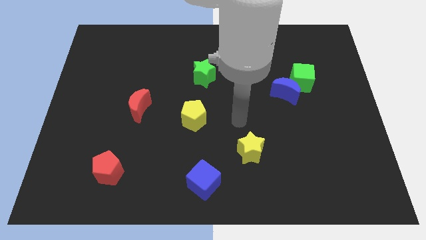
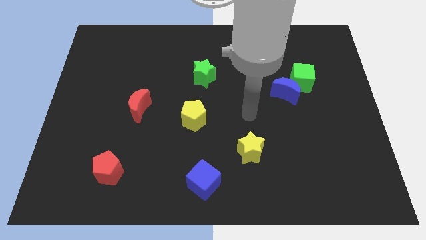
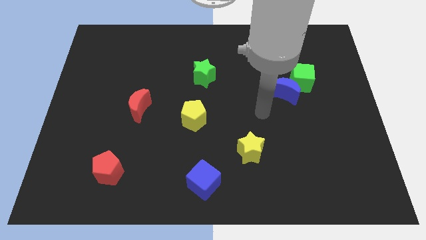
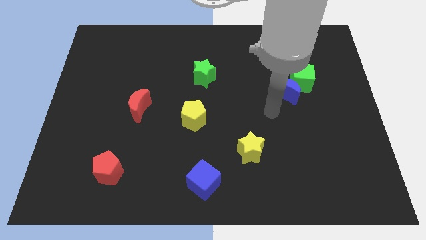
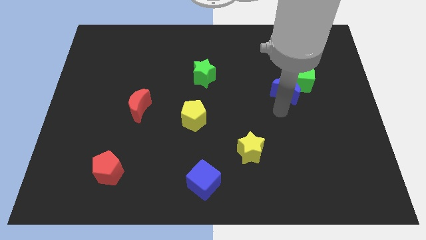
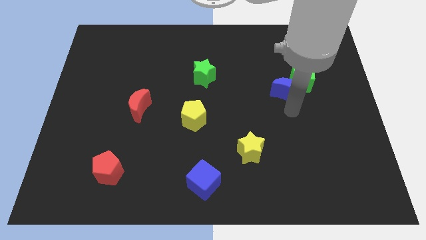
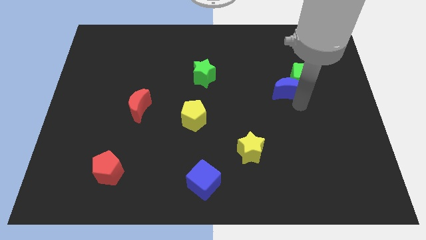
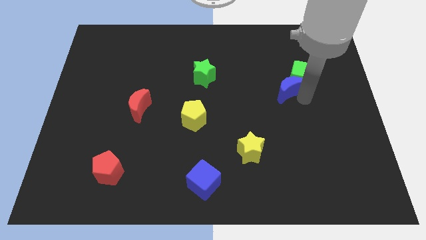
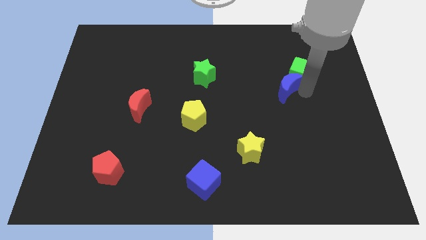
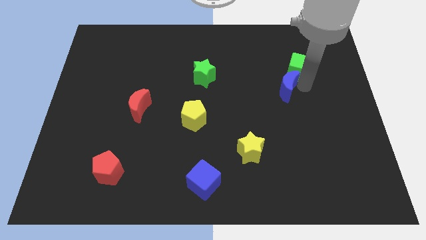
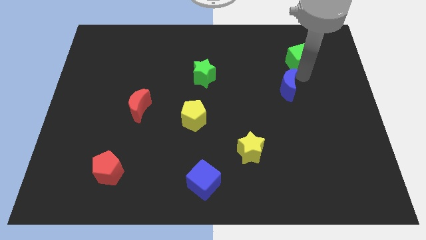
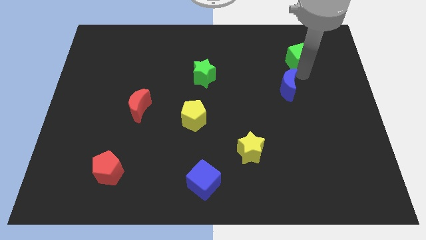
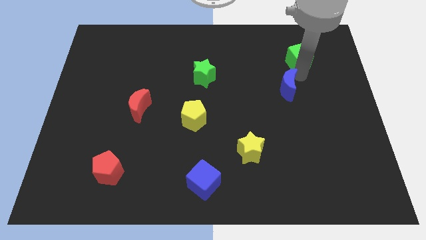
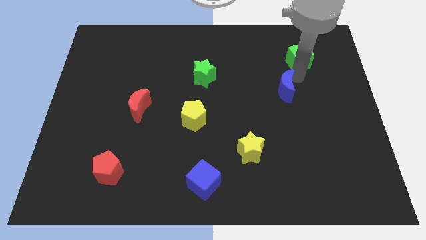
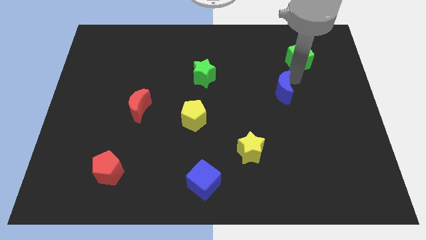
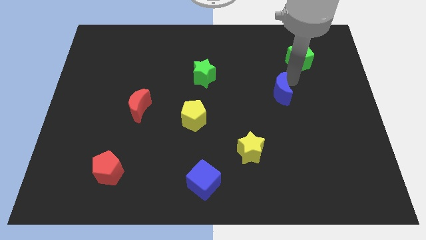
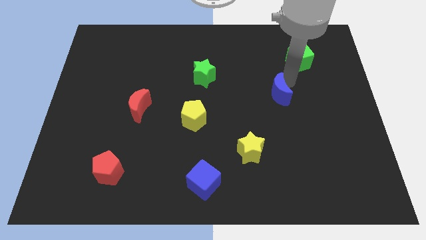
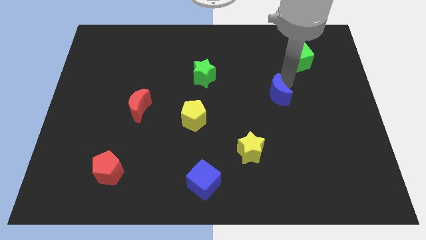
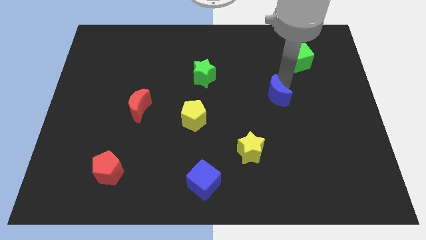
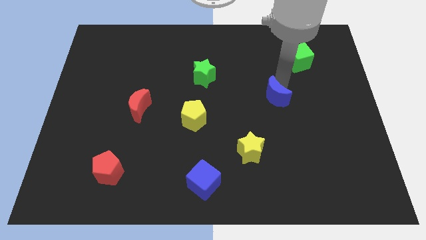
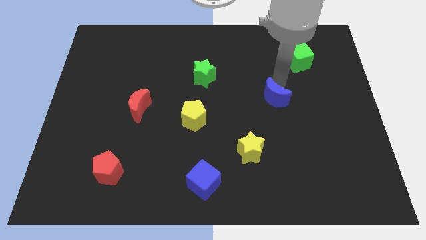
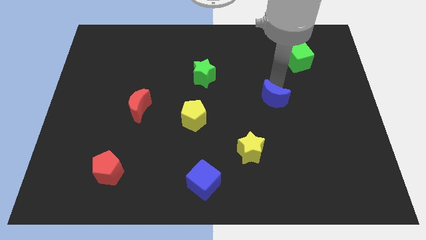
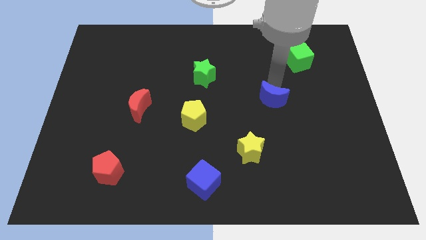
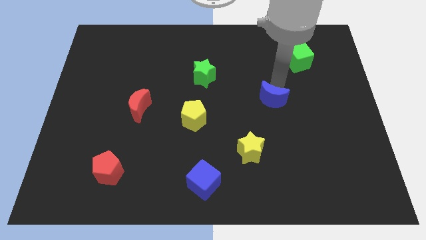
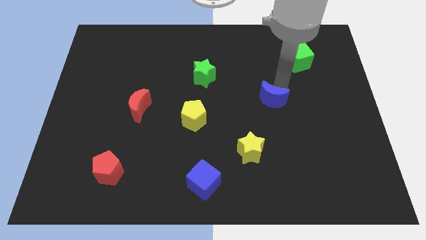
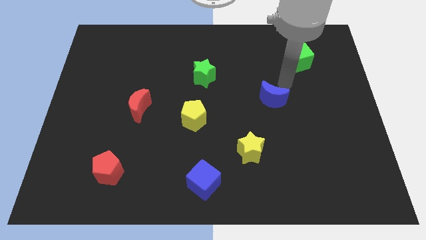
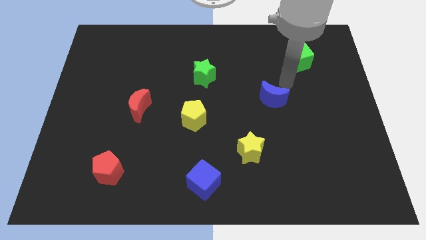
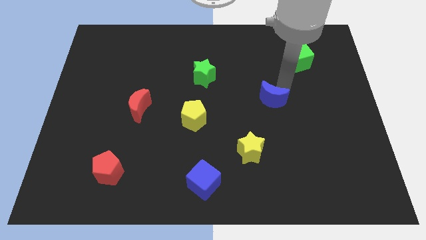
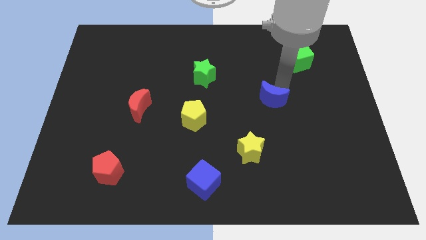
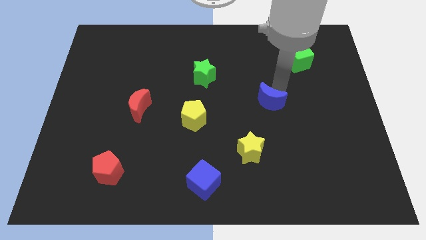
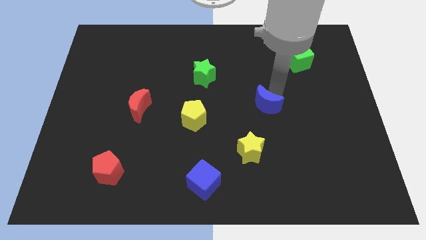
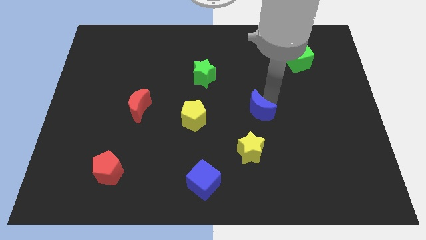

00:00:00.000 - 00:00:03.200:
slightly move the blue moon diagonally downwards and to the left

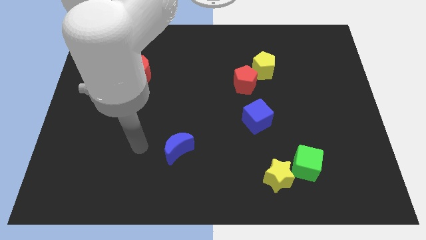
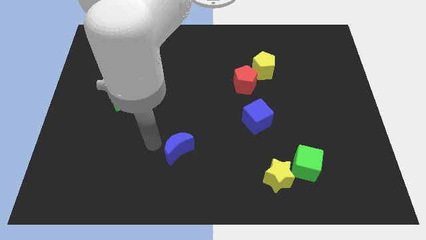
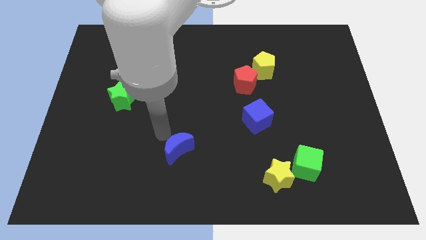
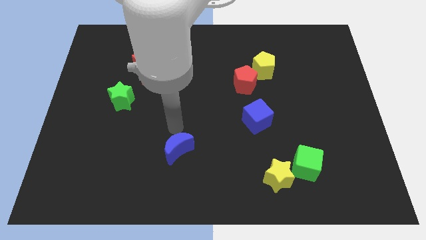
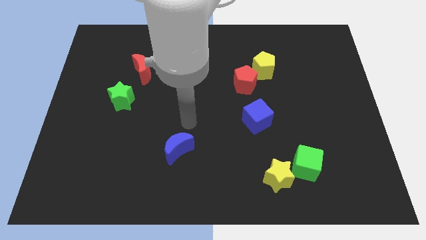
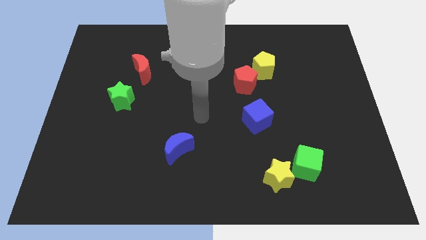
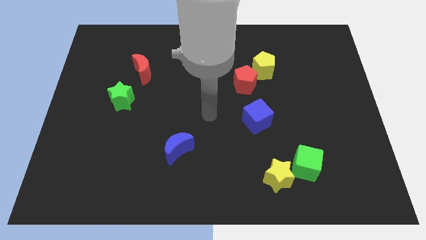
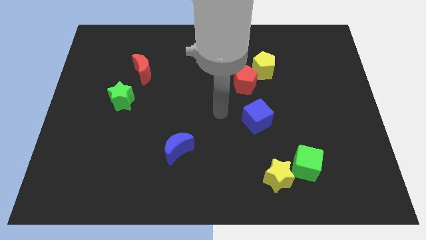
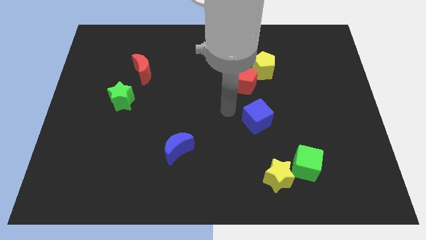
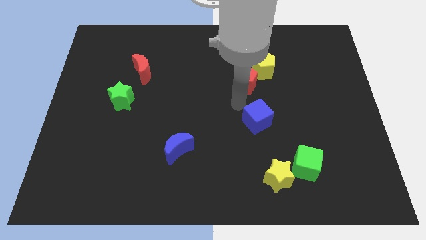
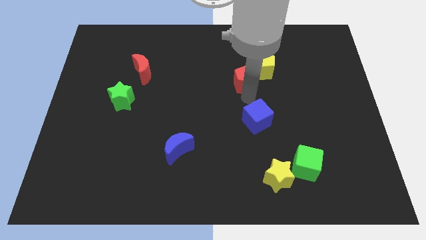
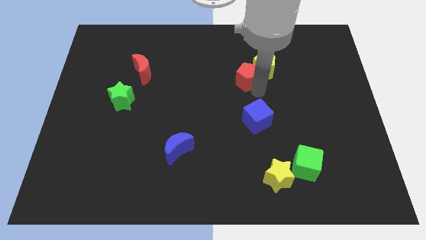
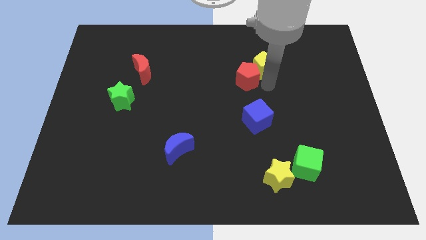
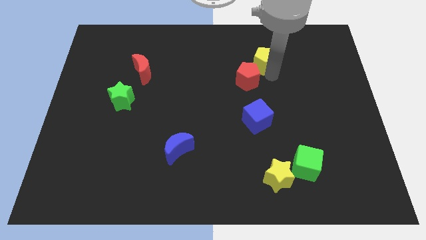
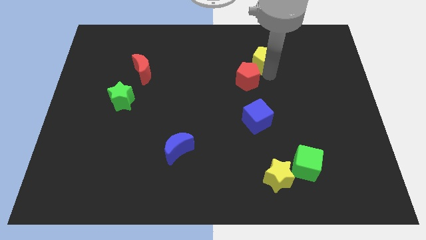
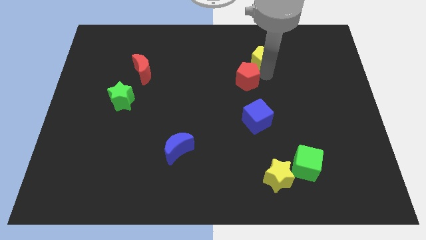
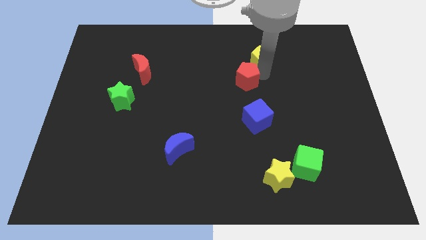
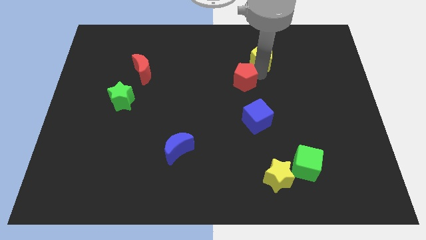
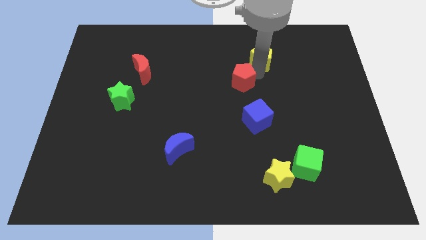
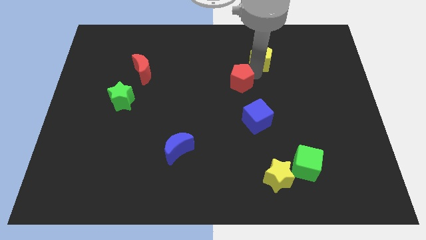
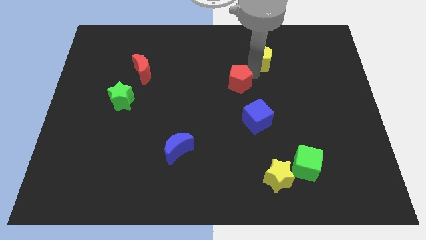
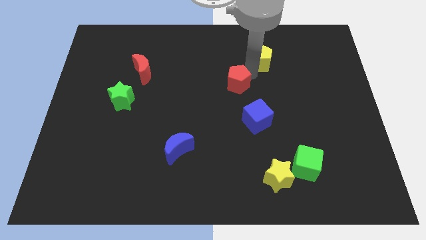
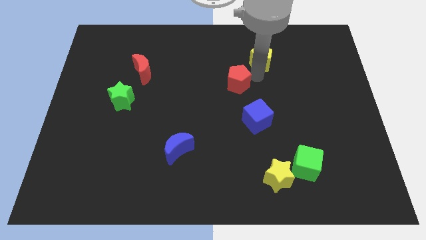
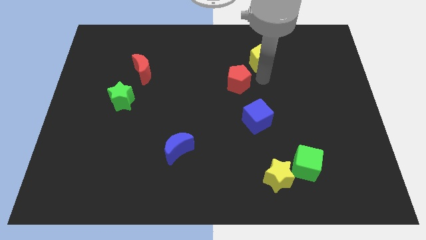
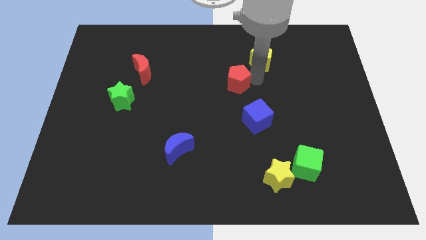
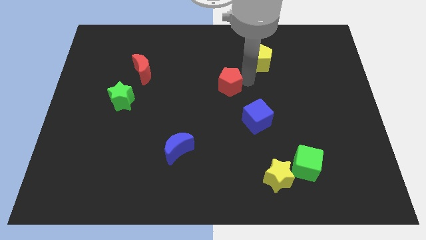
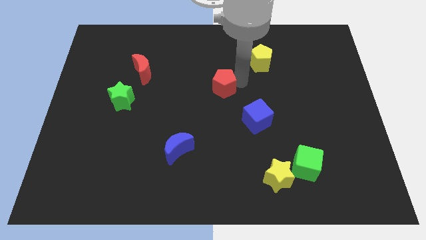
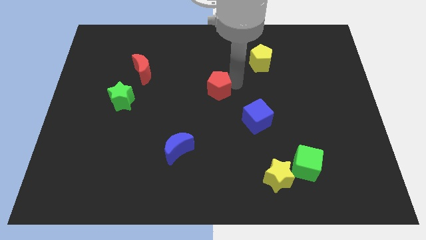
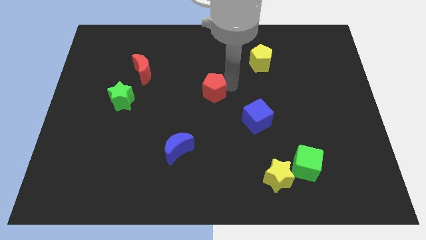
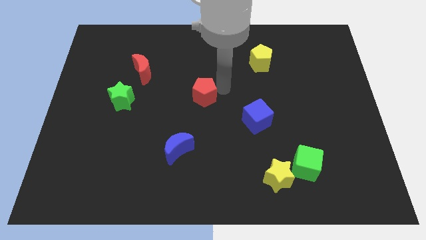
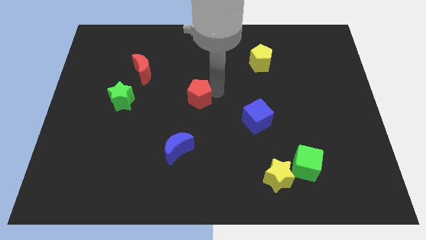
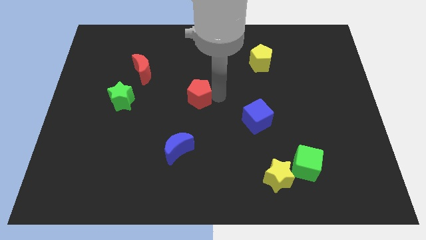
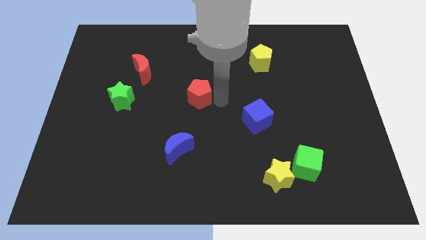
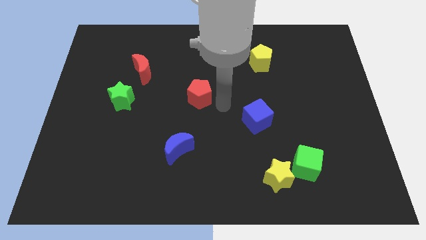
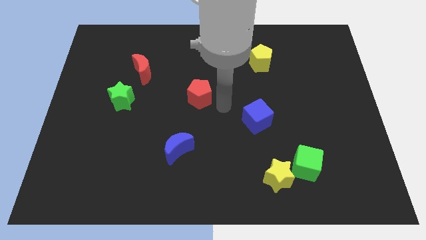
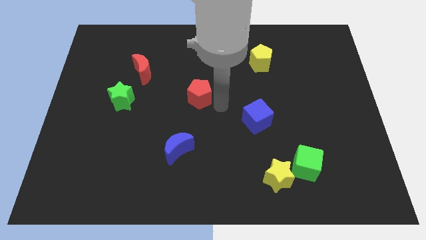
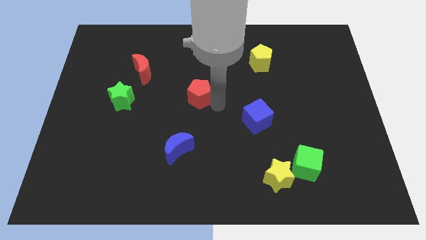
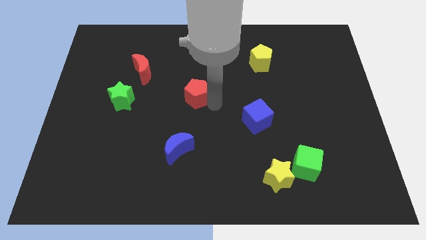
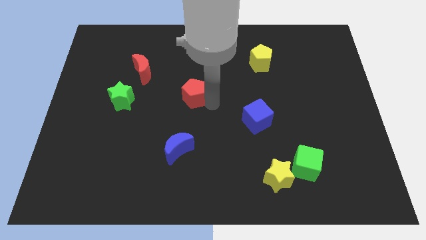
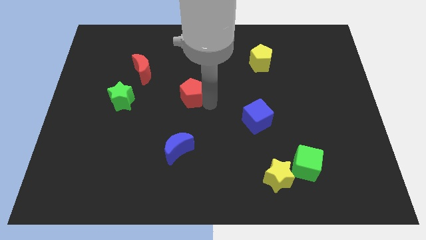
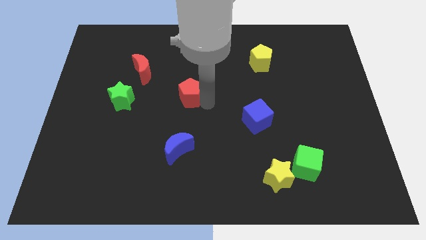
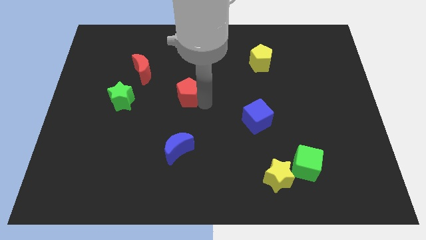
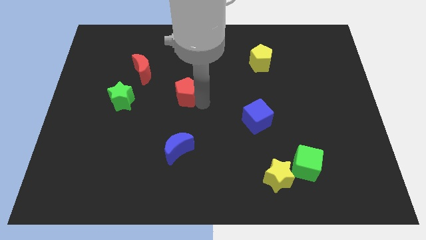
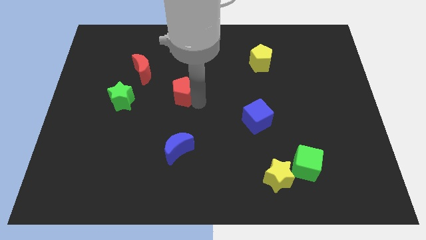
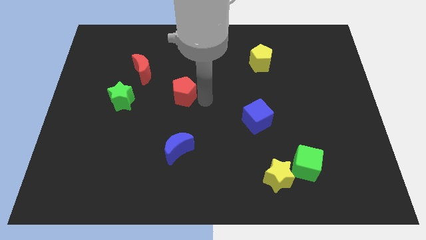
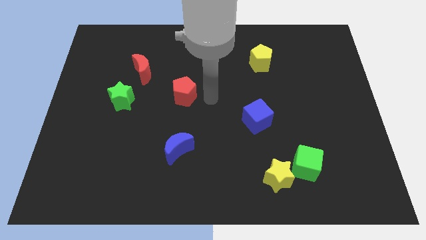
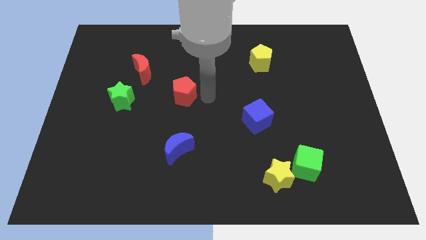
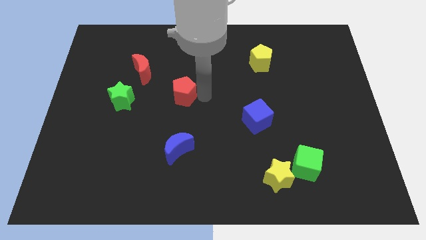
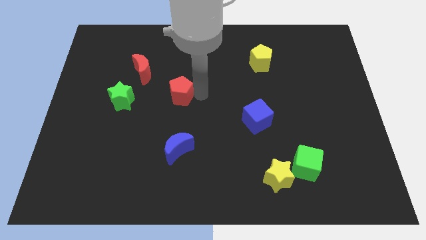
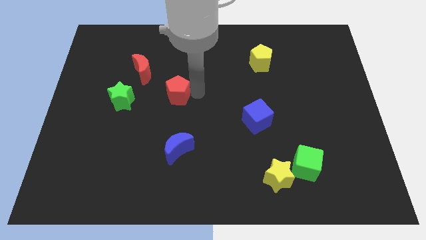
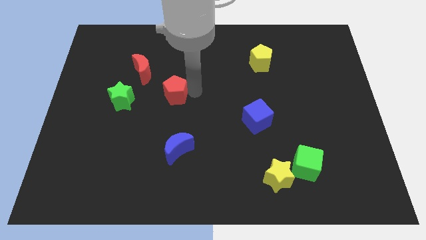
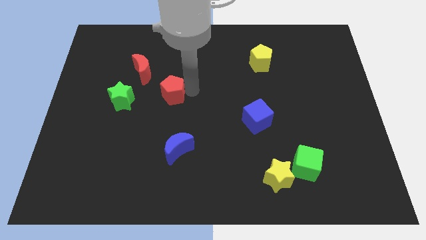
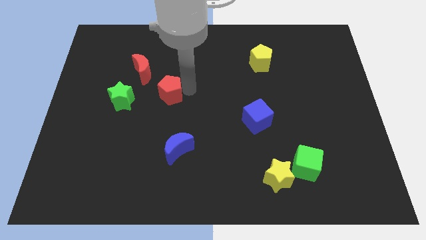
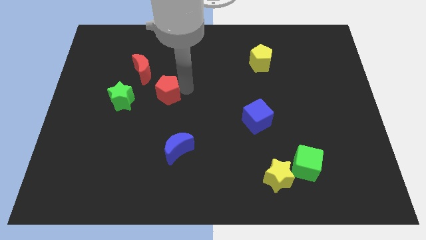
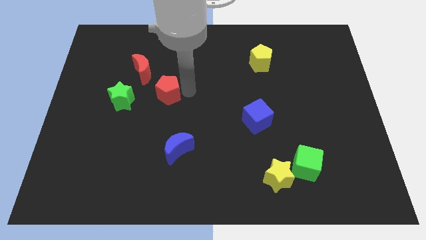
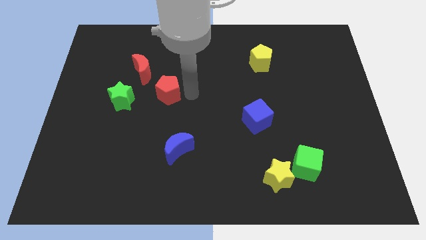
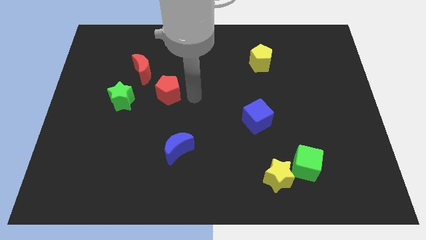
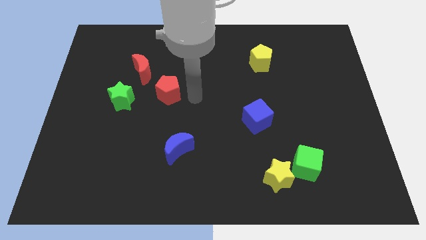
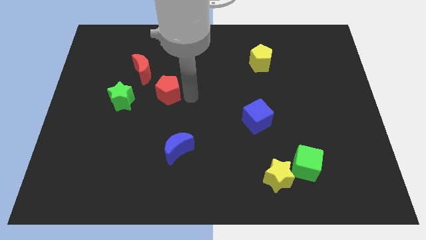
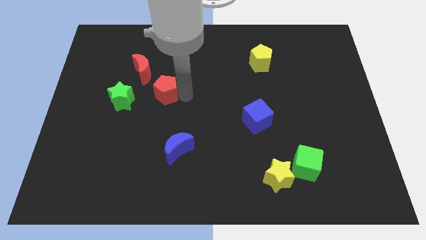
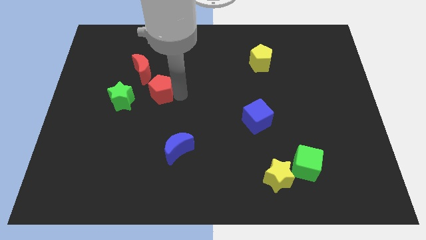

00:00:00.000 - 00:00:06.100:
slide the red pentagon to the left
